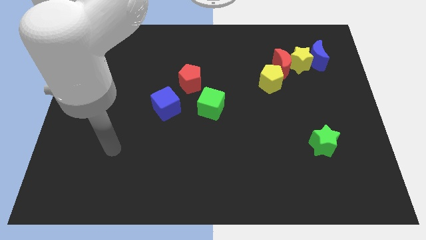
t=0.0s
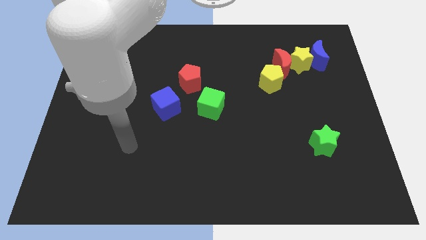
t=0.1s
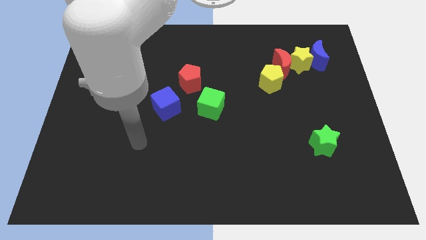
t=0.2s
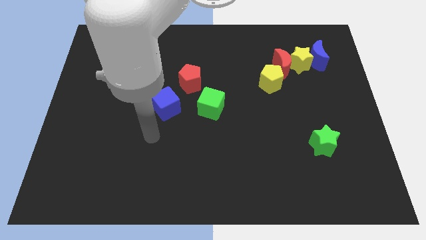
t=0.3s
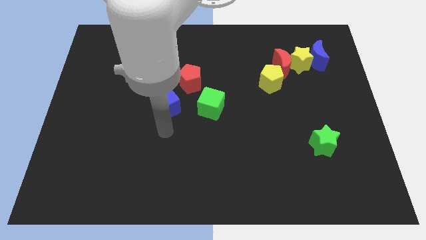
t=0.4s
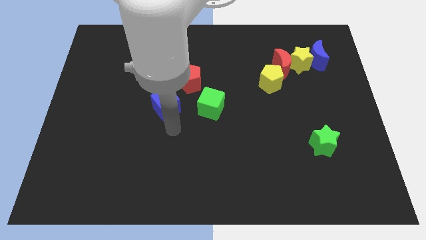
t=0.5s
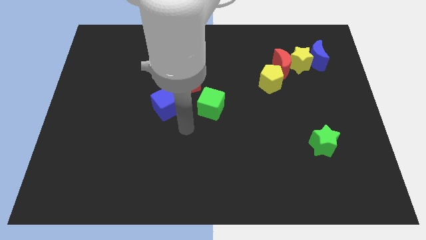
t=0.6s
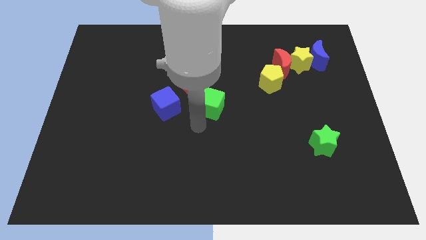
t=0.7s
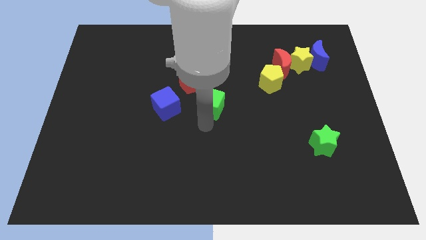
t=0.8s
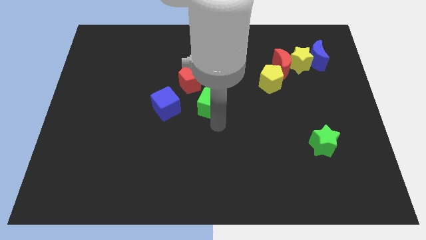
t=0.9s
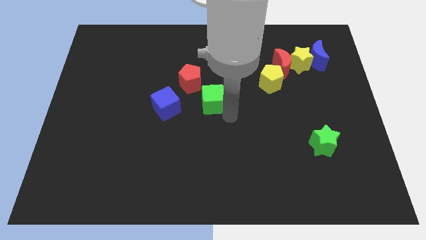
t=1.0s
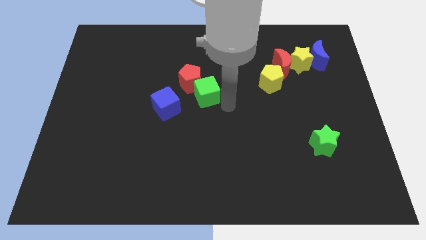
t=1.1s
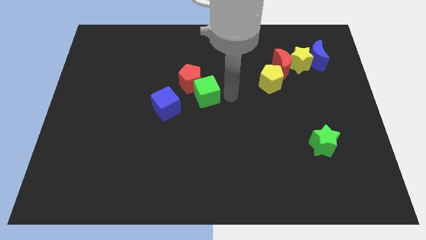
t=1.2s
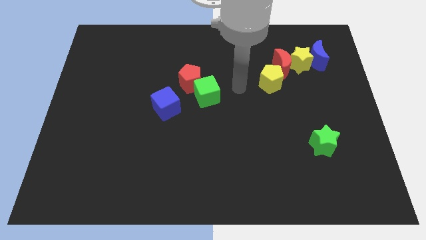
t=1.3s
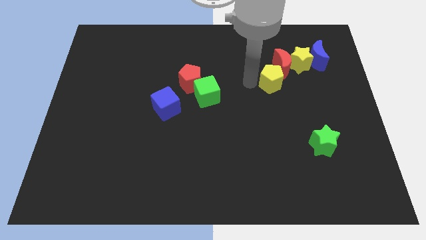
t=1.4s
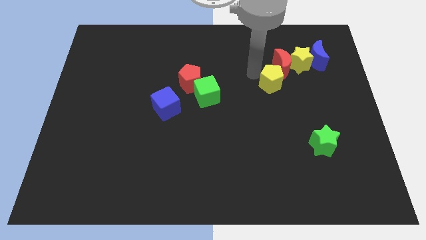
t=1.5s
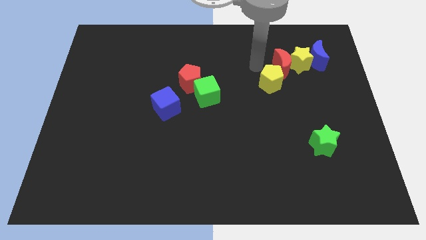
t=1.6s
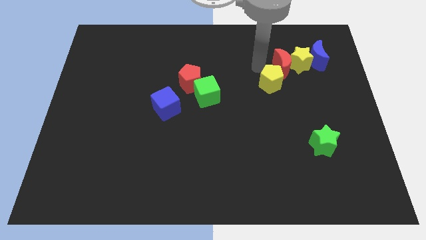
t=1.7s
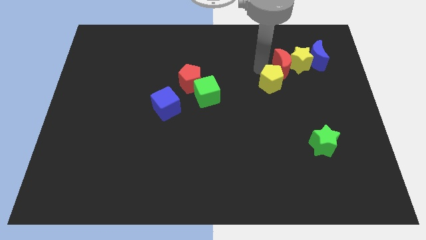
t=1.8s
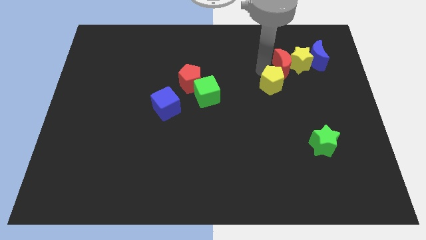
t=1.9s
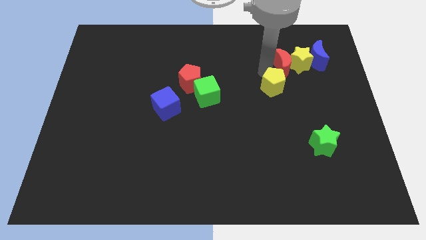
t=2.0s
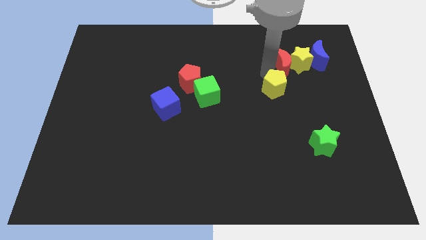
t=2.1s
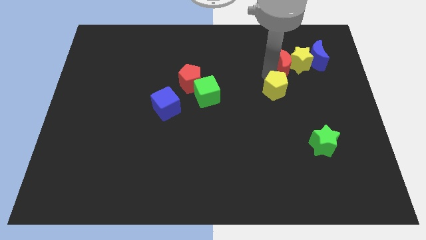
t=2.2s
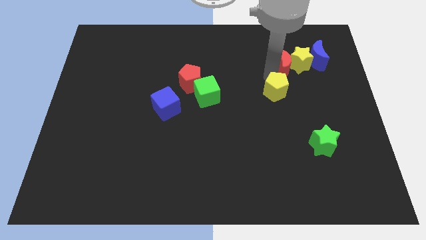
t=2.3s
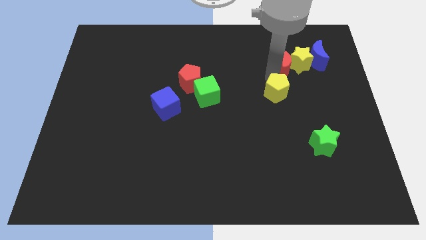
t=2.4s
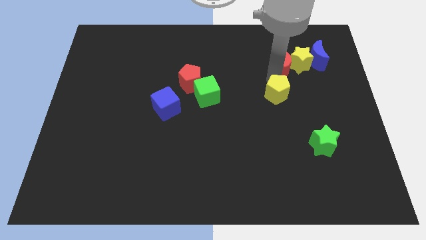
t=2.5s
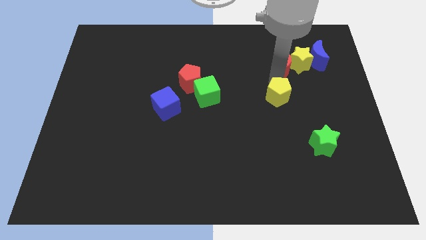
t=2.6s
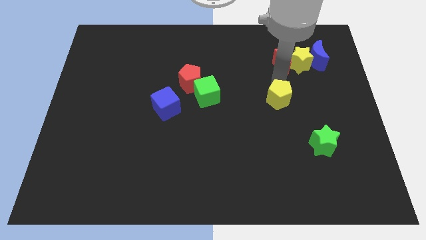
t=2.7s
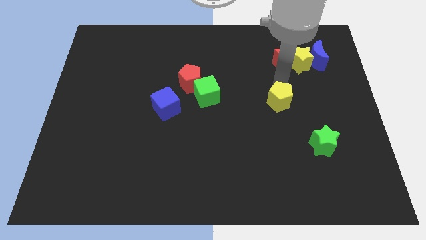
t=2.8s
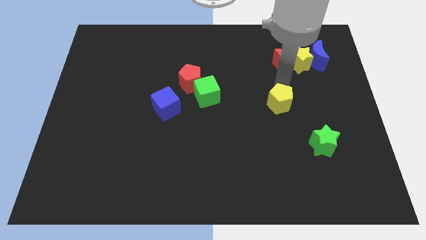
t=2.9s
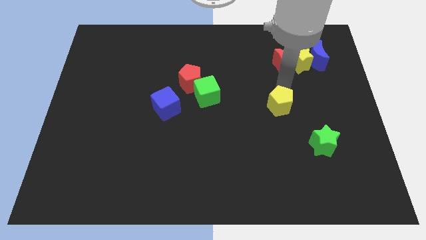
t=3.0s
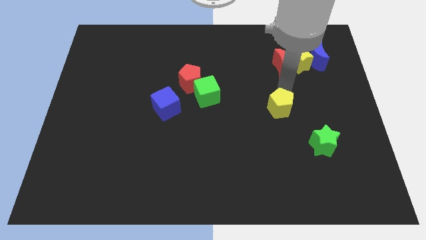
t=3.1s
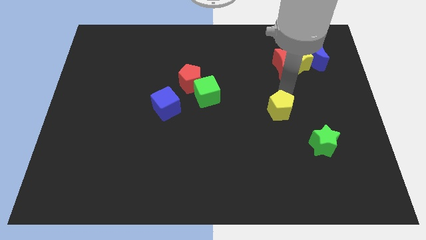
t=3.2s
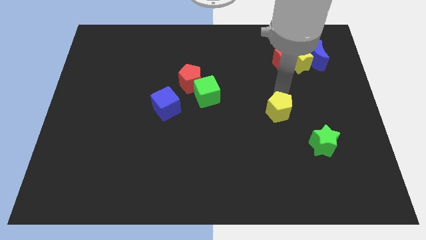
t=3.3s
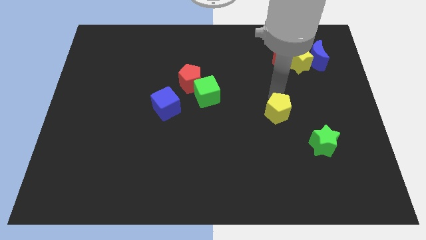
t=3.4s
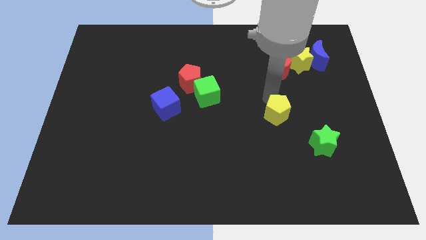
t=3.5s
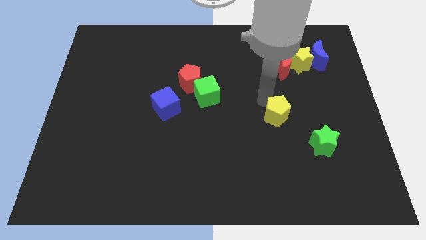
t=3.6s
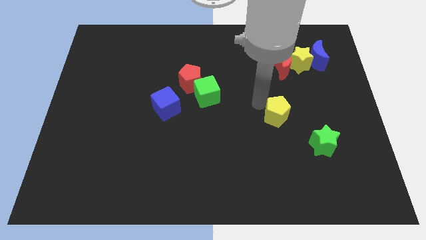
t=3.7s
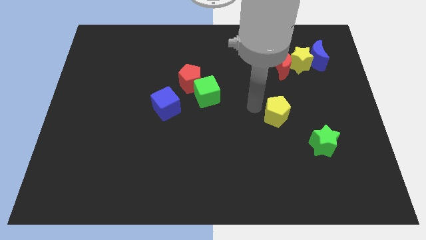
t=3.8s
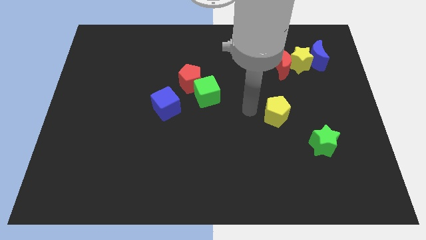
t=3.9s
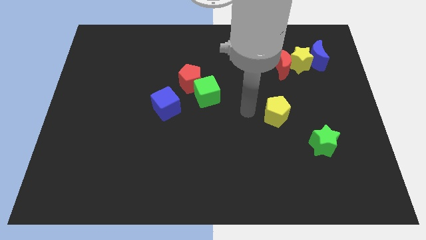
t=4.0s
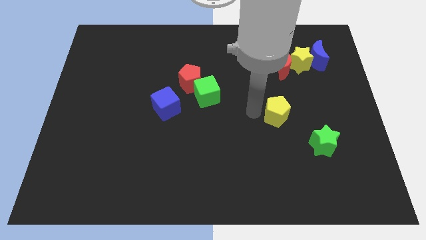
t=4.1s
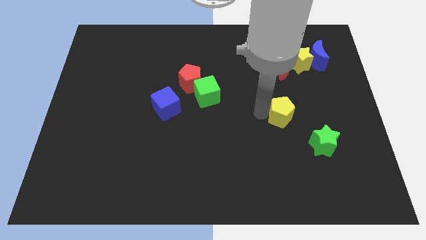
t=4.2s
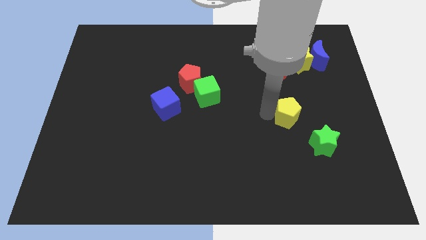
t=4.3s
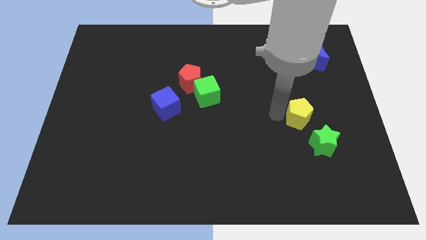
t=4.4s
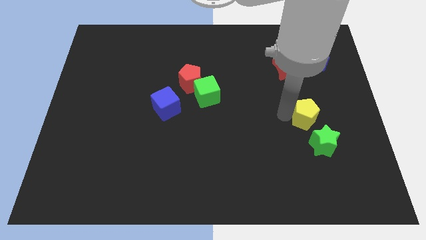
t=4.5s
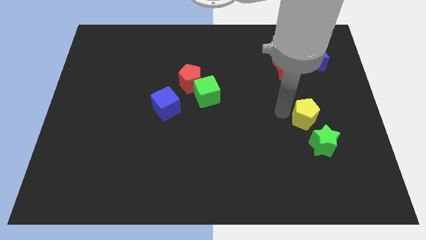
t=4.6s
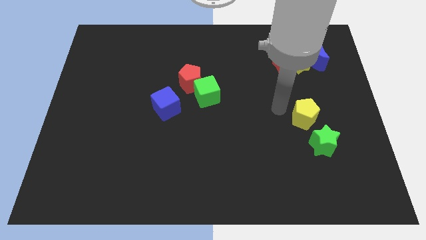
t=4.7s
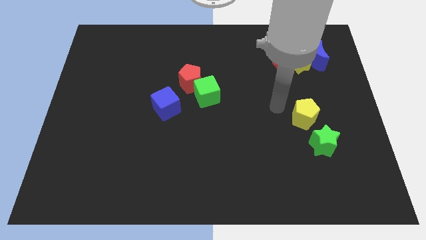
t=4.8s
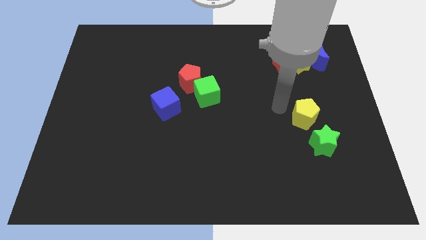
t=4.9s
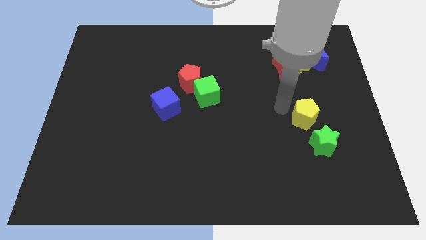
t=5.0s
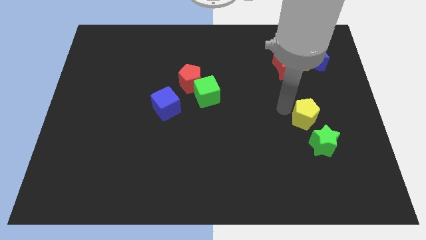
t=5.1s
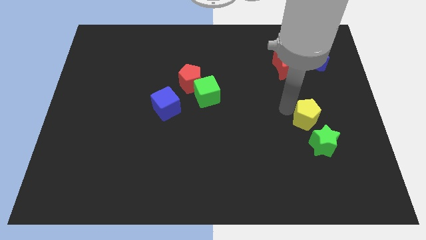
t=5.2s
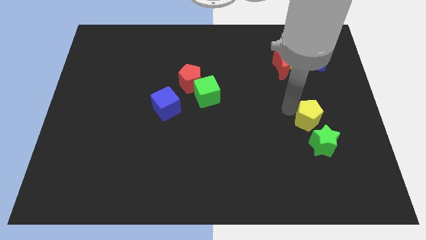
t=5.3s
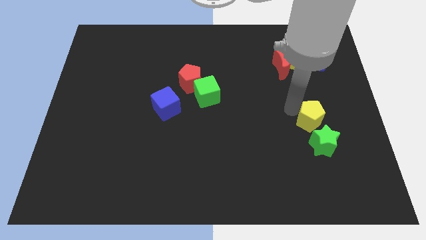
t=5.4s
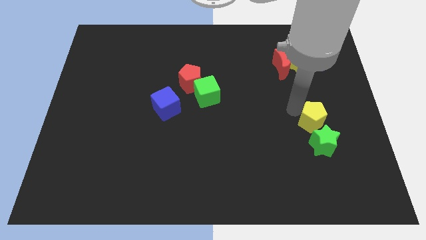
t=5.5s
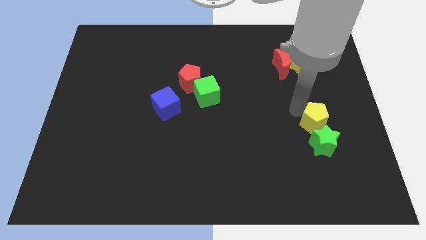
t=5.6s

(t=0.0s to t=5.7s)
push the yellow pentagon towards the green star

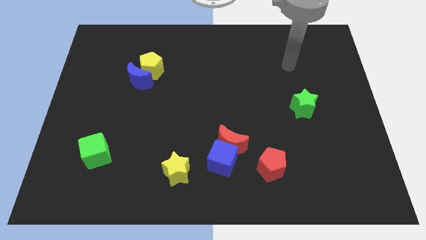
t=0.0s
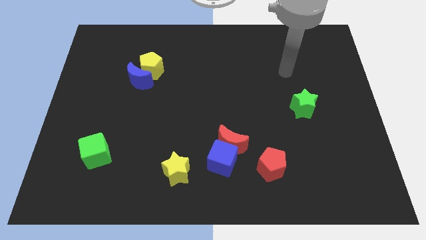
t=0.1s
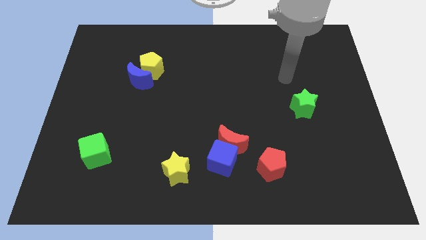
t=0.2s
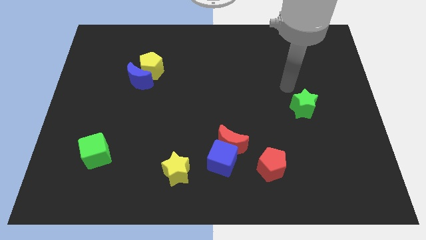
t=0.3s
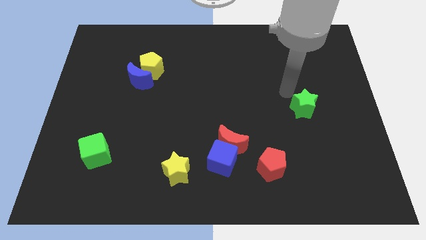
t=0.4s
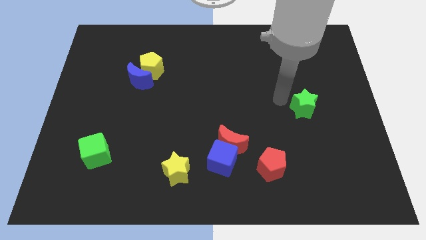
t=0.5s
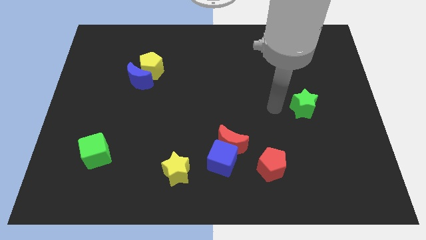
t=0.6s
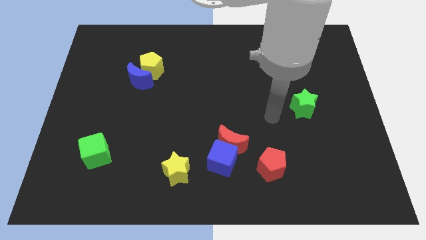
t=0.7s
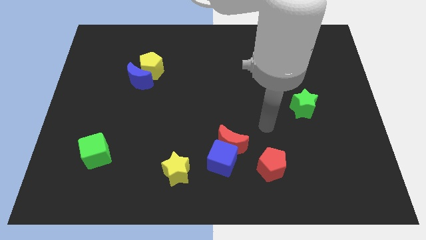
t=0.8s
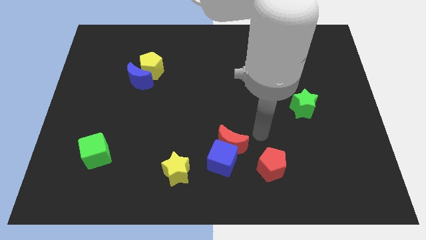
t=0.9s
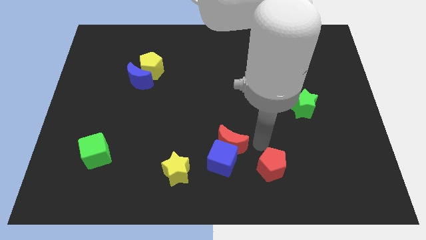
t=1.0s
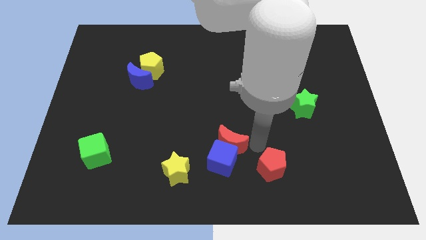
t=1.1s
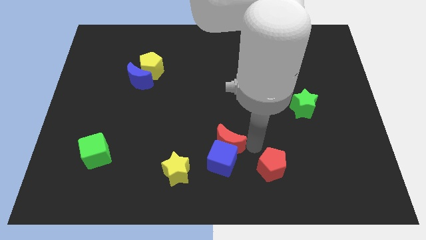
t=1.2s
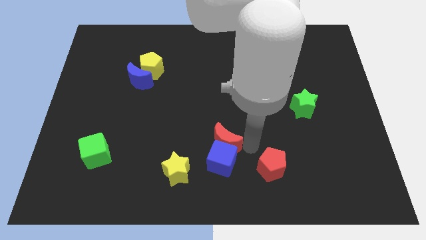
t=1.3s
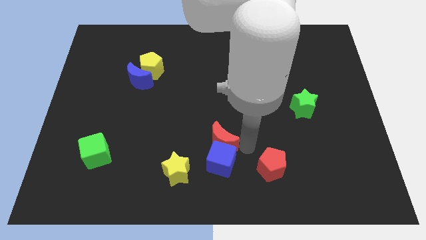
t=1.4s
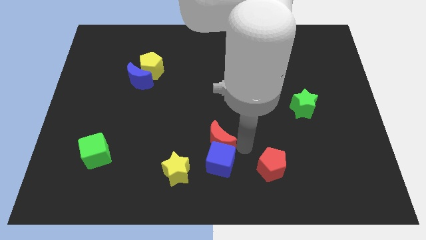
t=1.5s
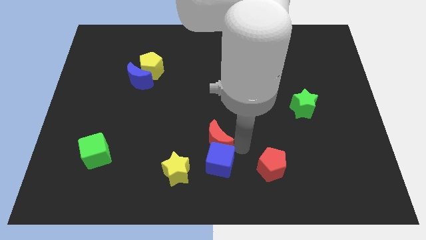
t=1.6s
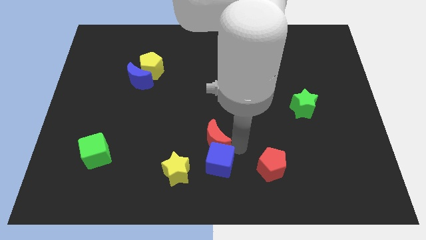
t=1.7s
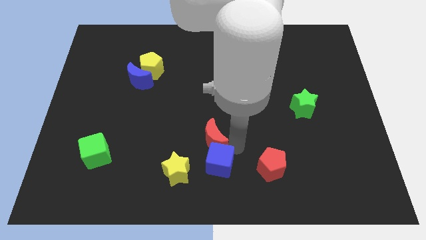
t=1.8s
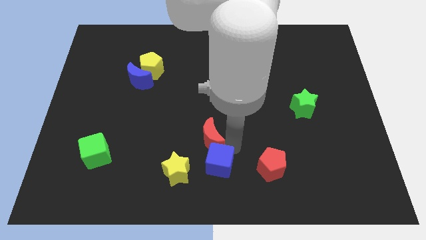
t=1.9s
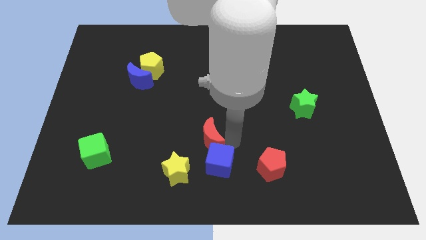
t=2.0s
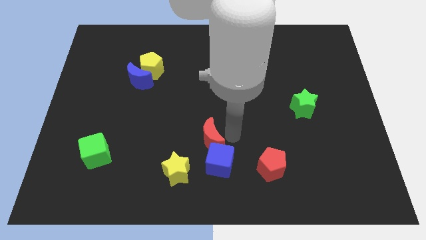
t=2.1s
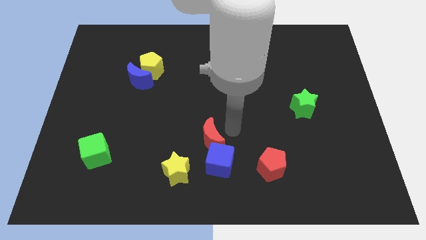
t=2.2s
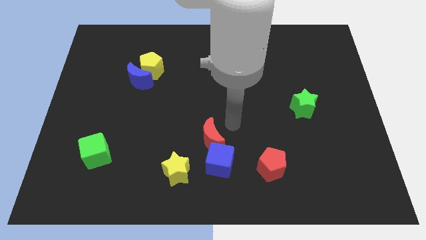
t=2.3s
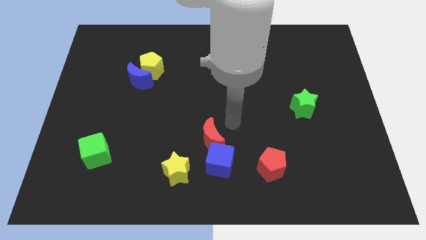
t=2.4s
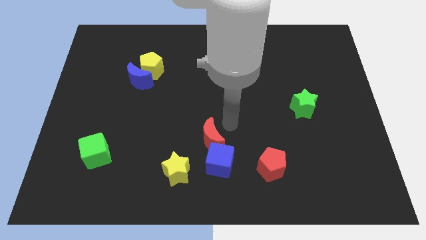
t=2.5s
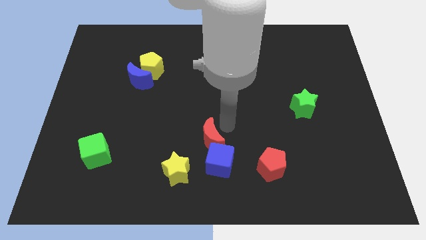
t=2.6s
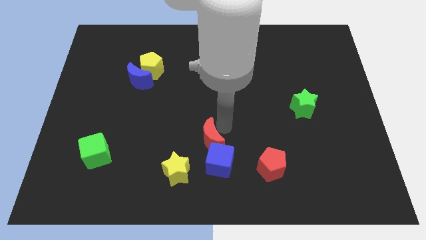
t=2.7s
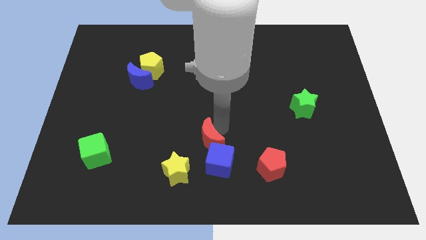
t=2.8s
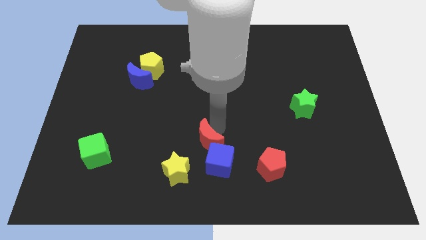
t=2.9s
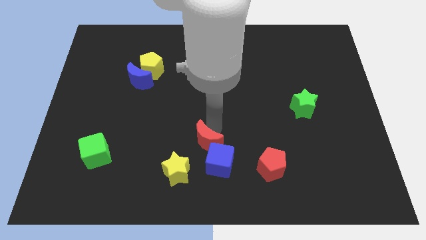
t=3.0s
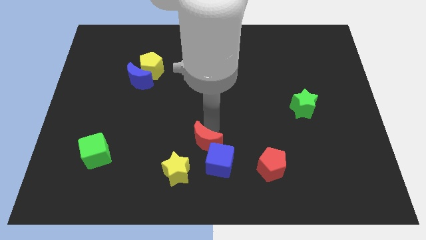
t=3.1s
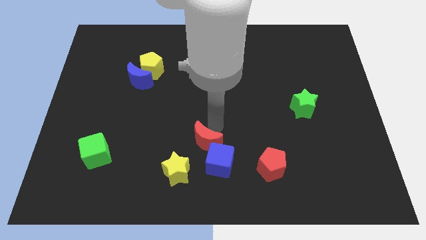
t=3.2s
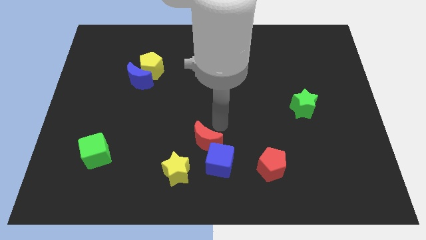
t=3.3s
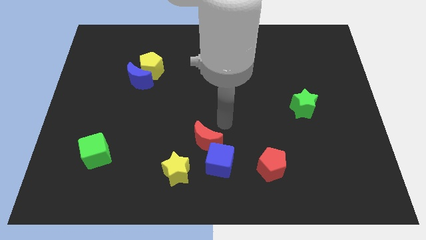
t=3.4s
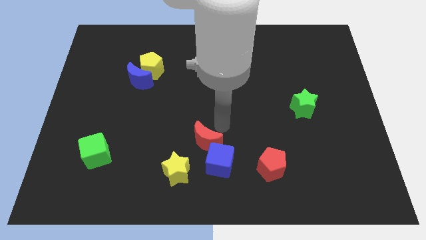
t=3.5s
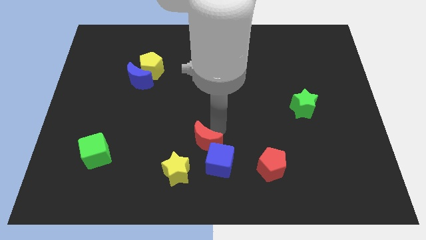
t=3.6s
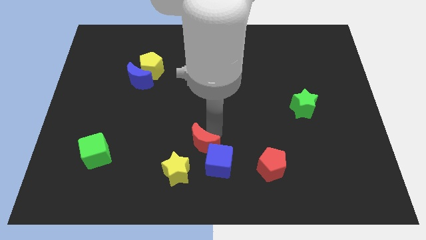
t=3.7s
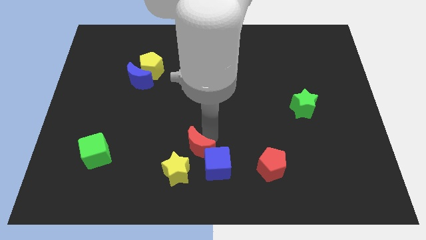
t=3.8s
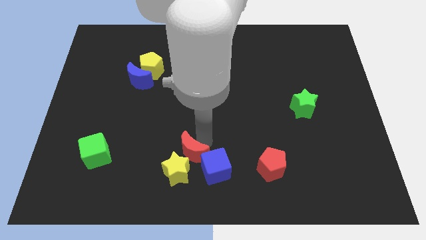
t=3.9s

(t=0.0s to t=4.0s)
put the red moon next to the yellow star
